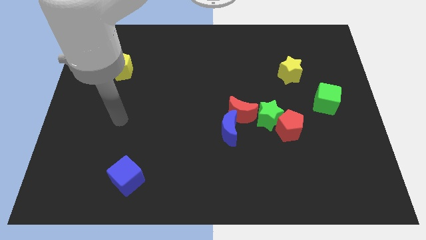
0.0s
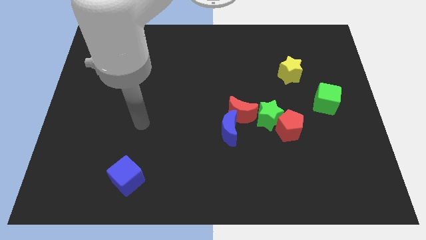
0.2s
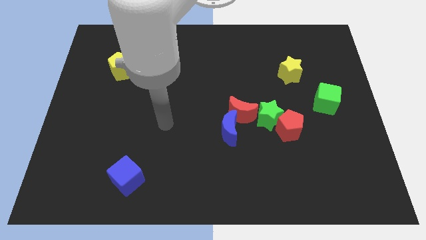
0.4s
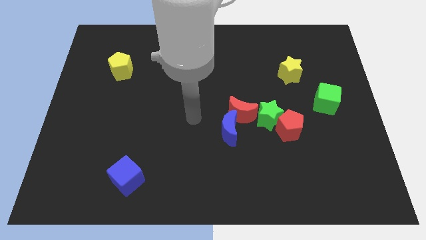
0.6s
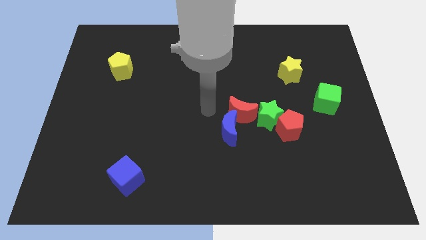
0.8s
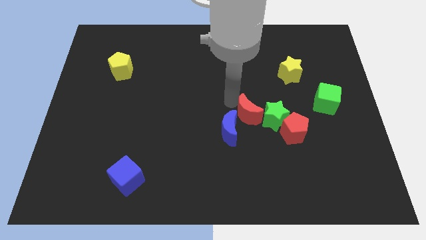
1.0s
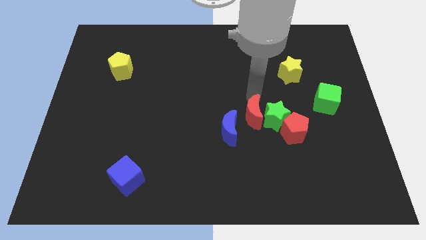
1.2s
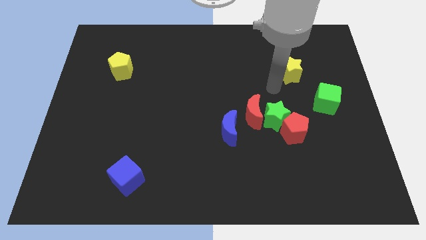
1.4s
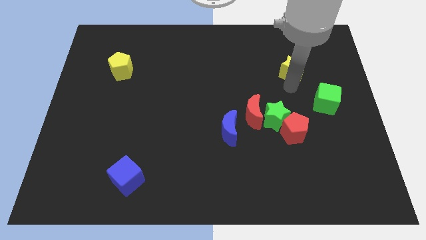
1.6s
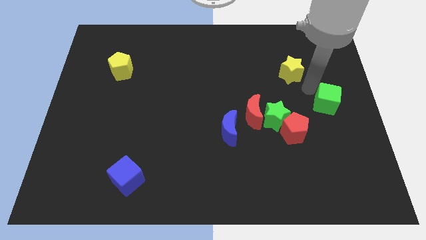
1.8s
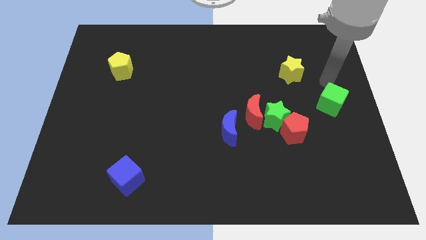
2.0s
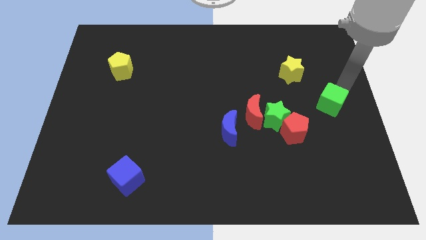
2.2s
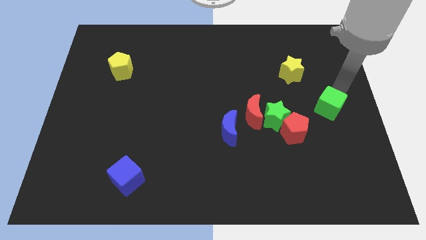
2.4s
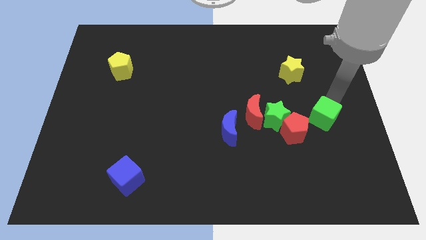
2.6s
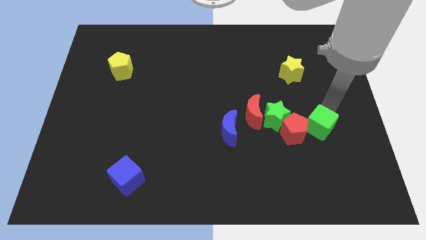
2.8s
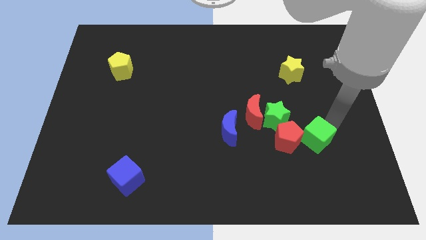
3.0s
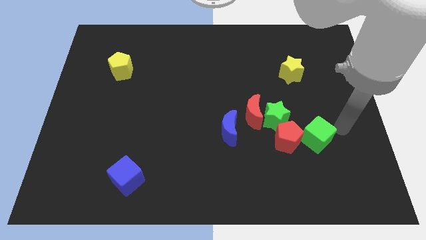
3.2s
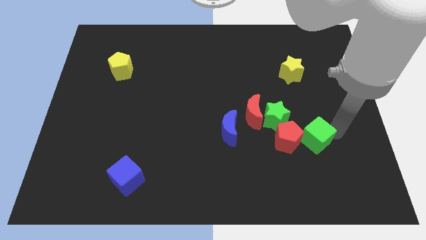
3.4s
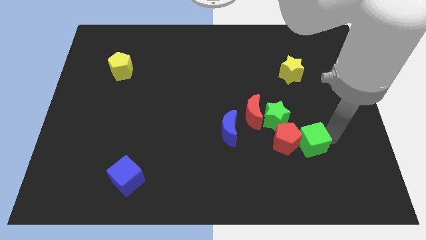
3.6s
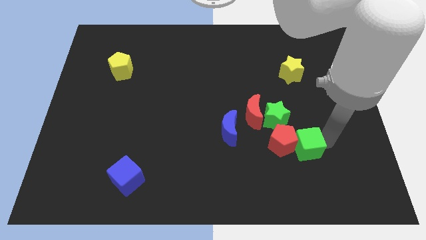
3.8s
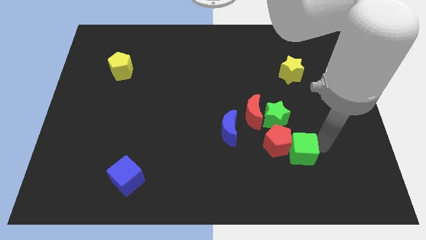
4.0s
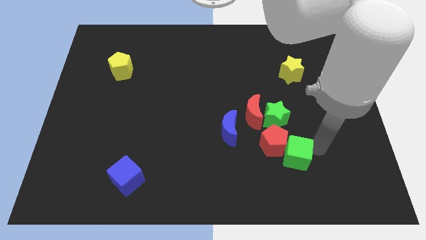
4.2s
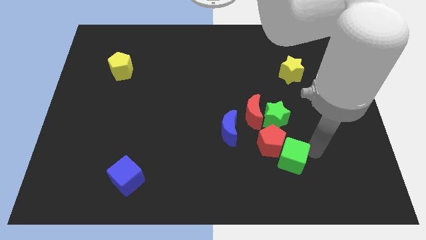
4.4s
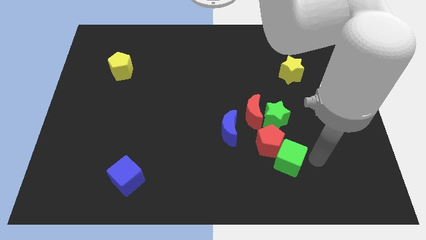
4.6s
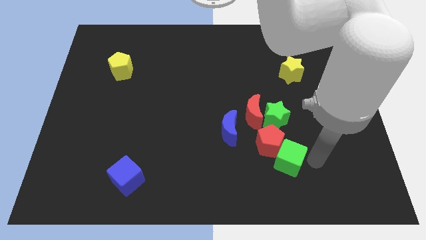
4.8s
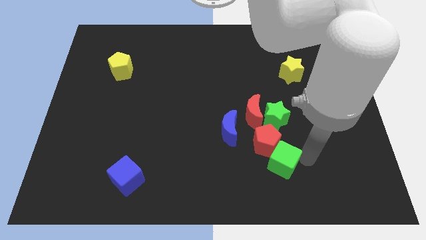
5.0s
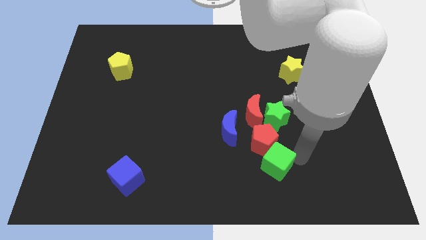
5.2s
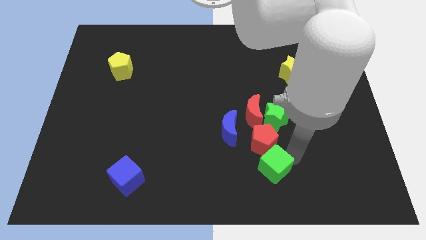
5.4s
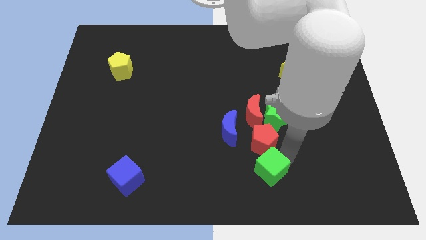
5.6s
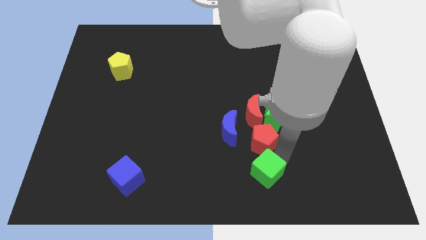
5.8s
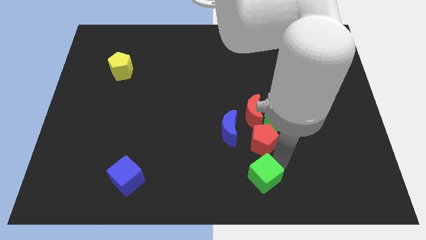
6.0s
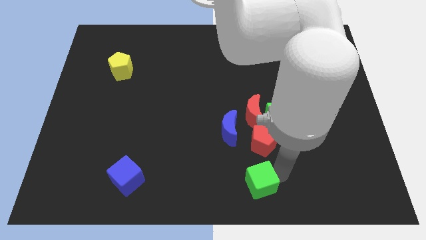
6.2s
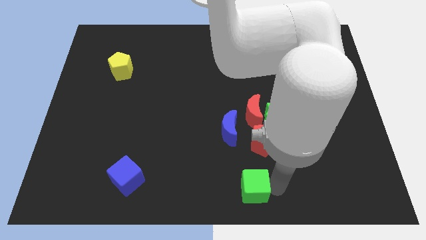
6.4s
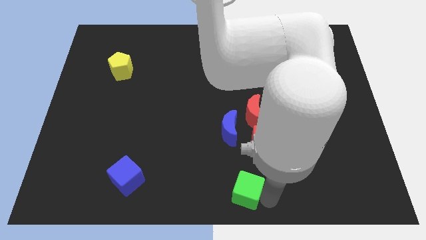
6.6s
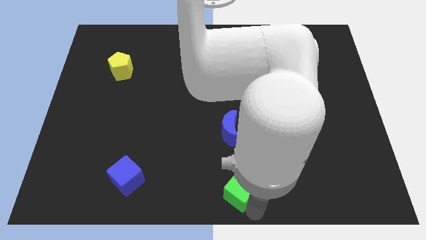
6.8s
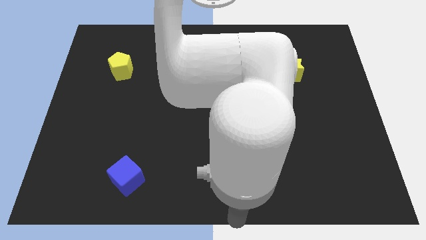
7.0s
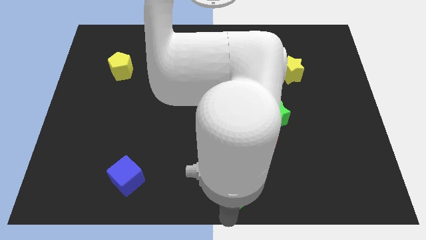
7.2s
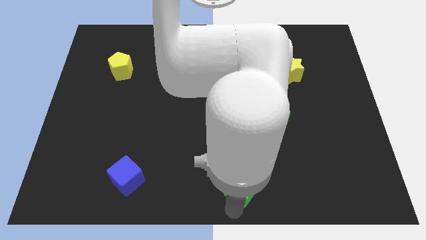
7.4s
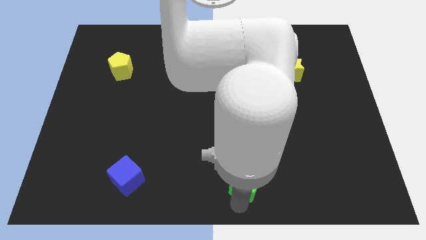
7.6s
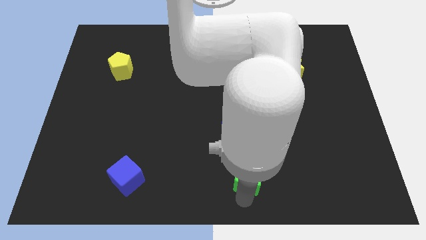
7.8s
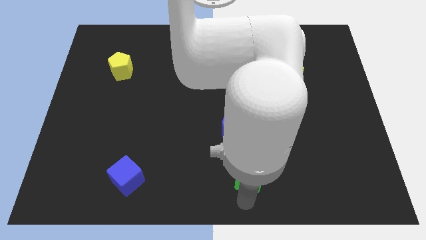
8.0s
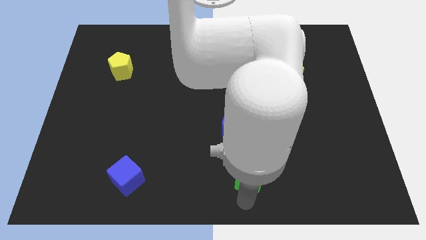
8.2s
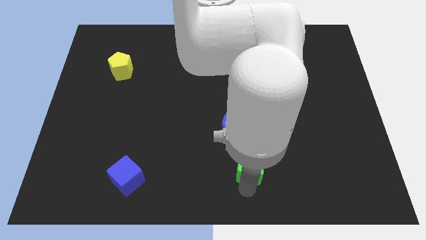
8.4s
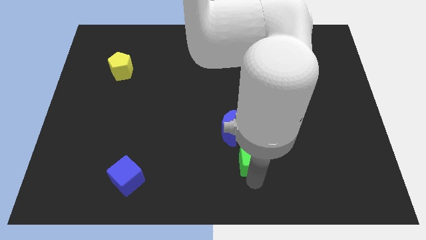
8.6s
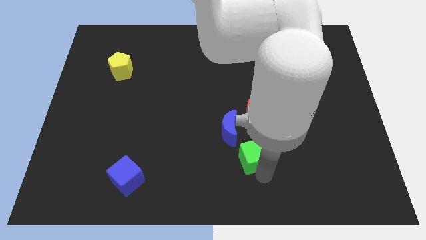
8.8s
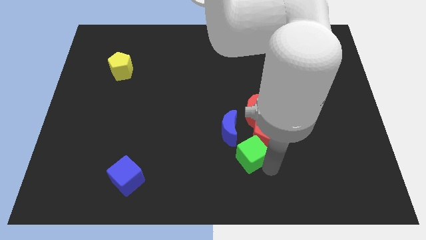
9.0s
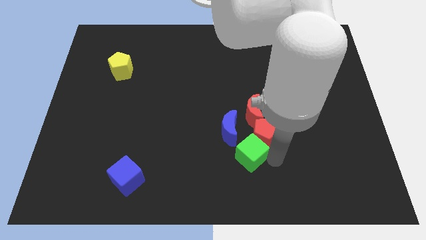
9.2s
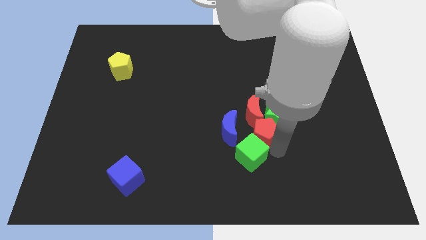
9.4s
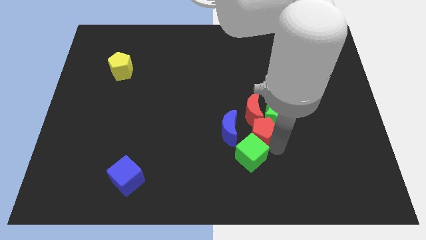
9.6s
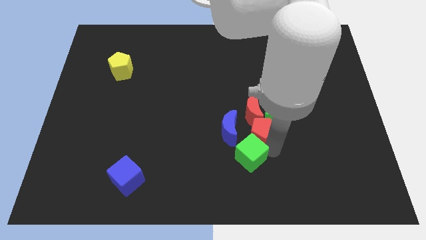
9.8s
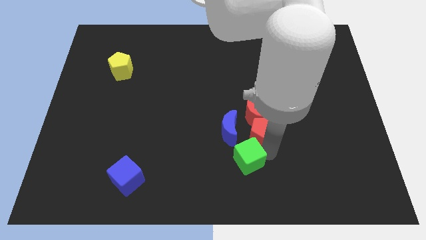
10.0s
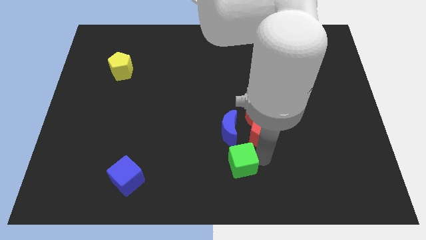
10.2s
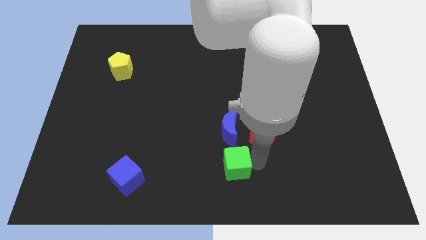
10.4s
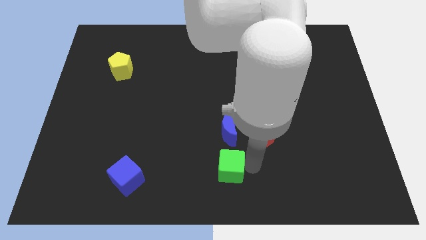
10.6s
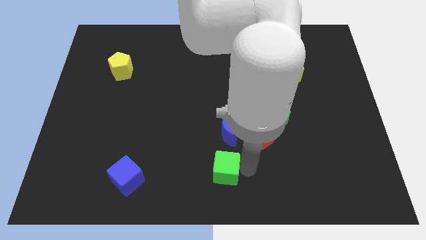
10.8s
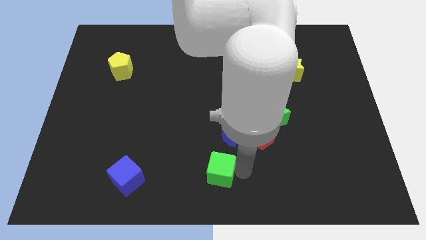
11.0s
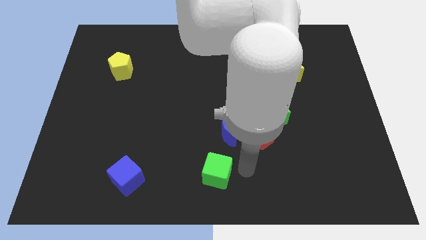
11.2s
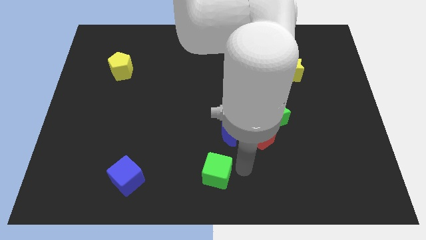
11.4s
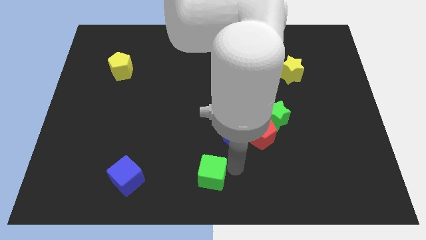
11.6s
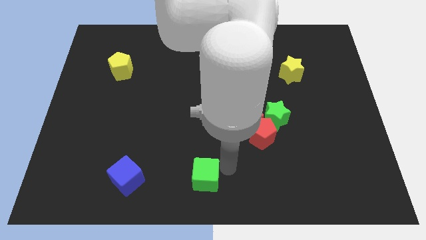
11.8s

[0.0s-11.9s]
push the green cube to the right of the blue cube
